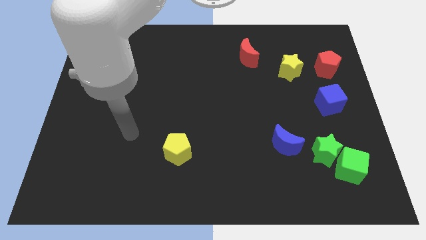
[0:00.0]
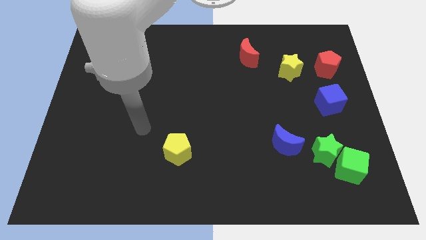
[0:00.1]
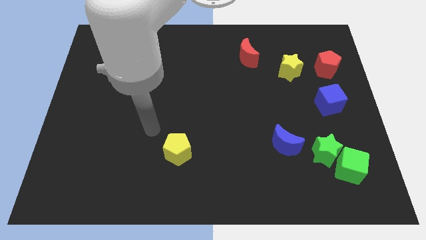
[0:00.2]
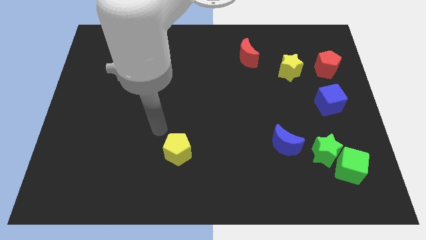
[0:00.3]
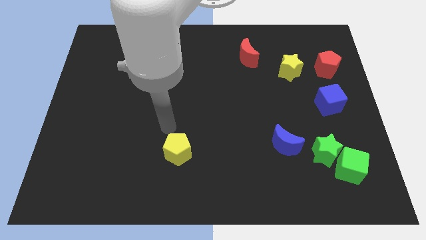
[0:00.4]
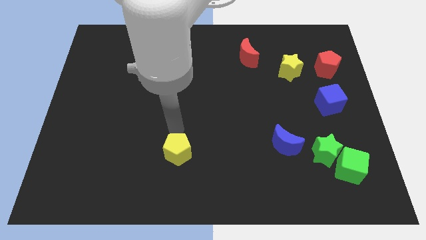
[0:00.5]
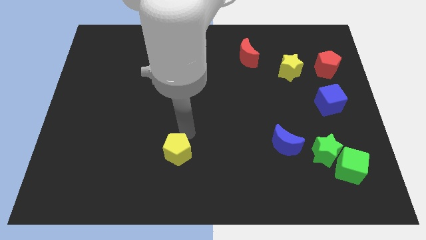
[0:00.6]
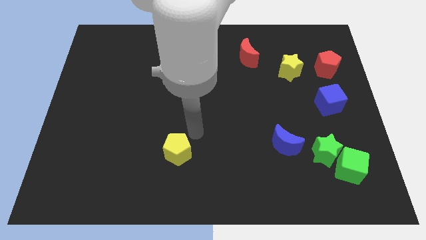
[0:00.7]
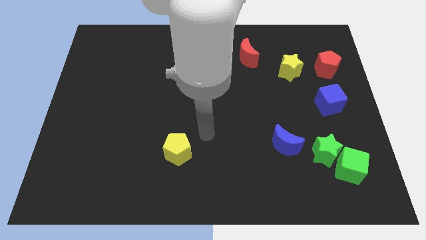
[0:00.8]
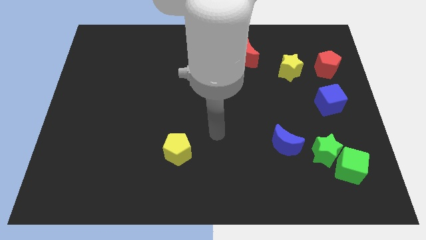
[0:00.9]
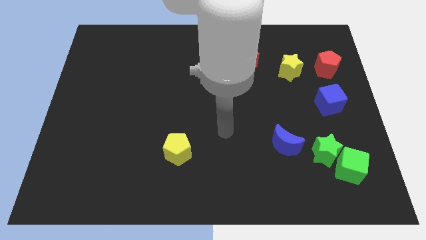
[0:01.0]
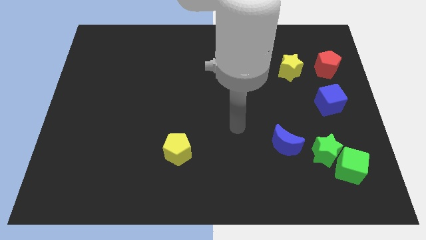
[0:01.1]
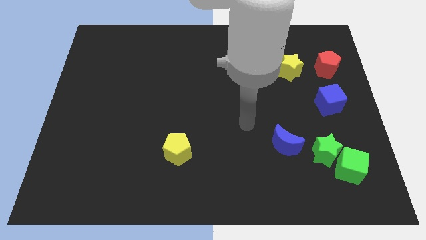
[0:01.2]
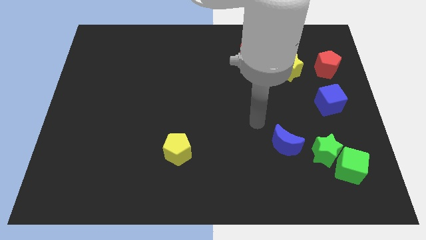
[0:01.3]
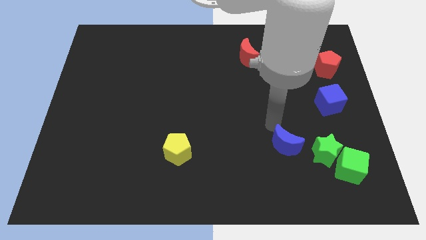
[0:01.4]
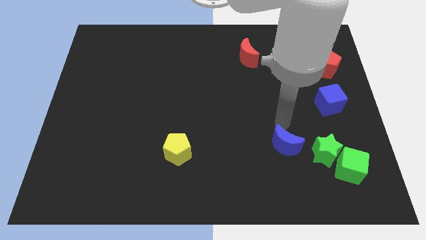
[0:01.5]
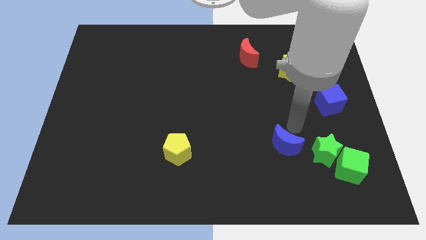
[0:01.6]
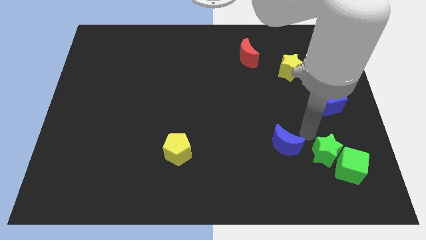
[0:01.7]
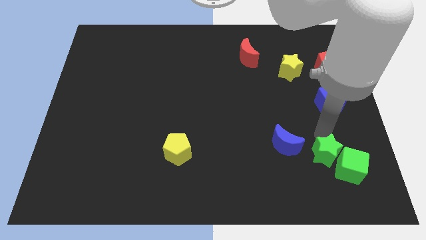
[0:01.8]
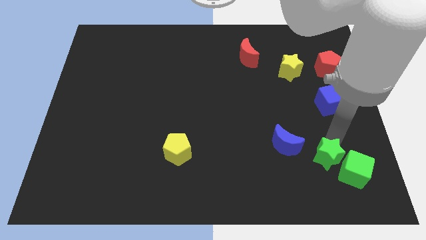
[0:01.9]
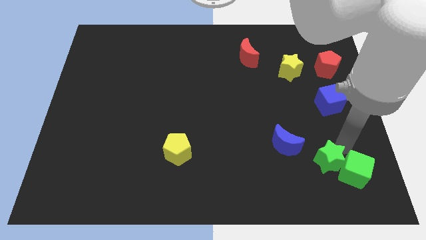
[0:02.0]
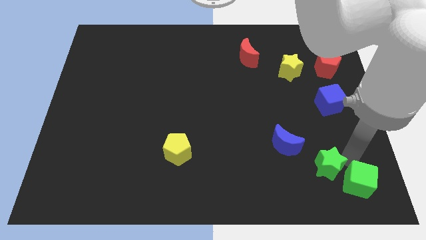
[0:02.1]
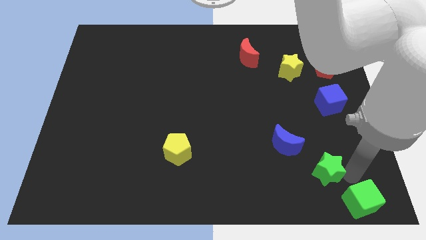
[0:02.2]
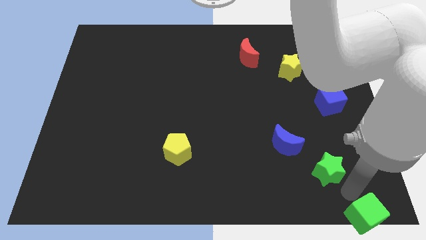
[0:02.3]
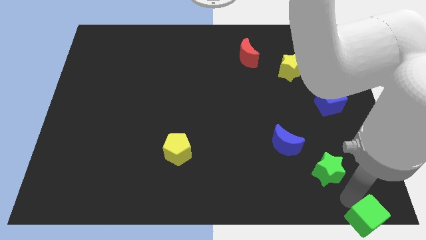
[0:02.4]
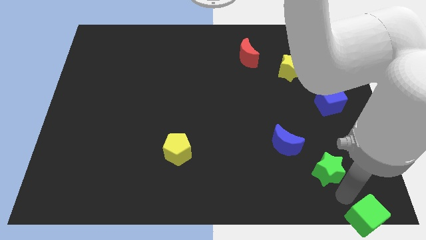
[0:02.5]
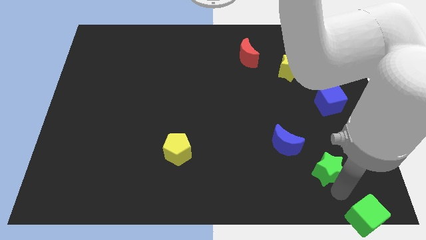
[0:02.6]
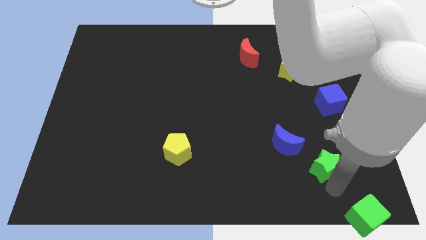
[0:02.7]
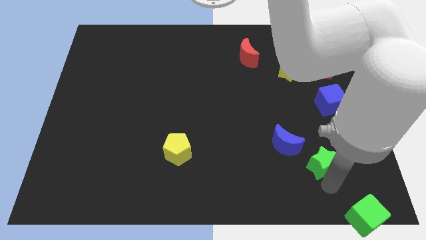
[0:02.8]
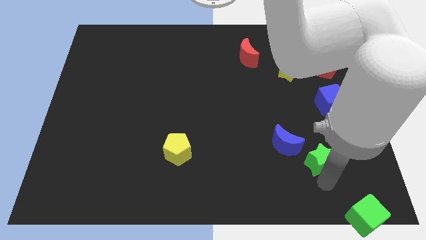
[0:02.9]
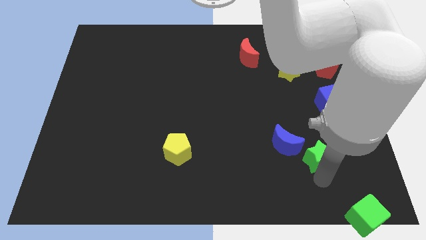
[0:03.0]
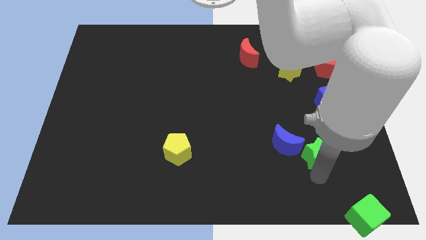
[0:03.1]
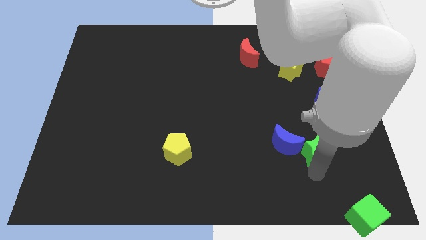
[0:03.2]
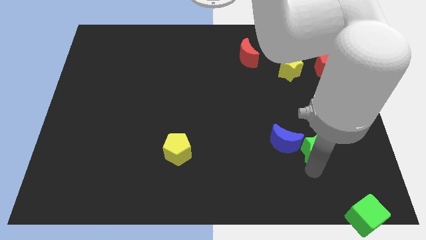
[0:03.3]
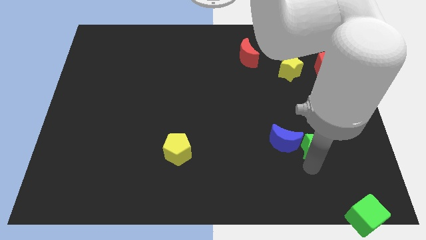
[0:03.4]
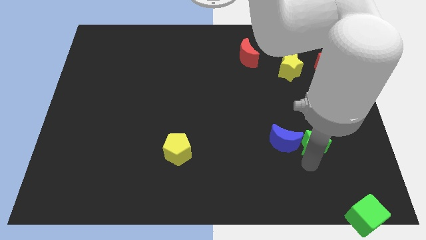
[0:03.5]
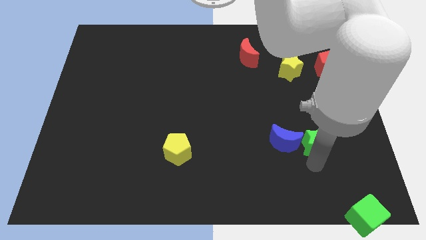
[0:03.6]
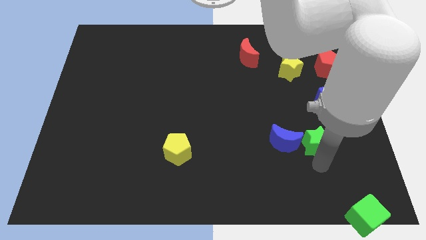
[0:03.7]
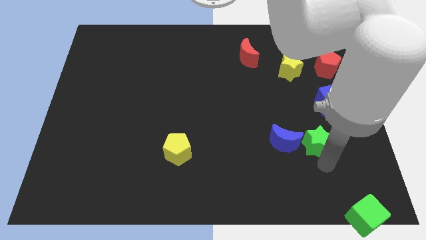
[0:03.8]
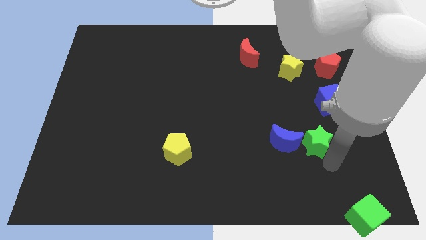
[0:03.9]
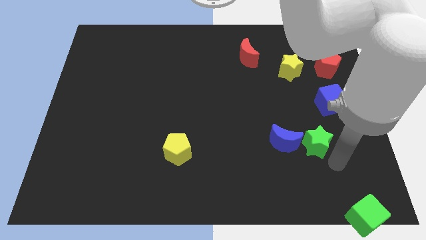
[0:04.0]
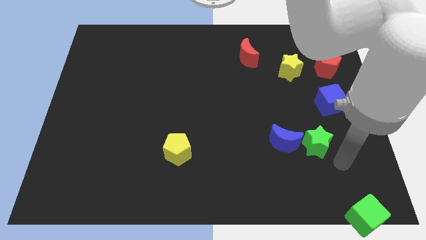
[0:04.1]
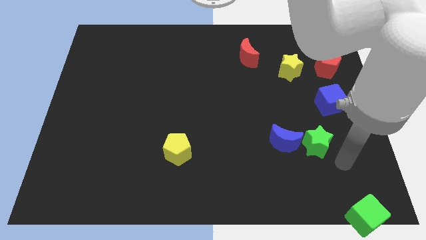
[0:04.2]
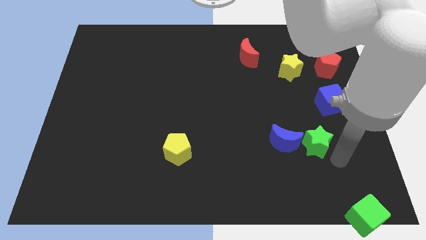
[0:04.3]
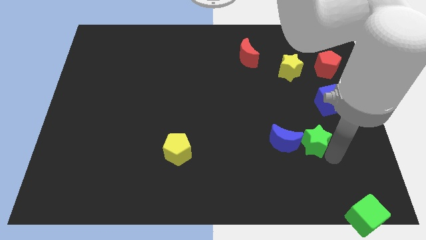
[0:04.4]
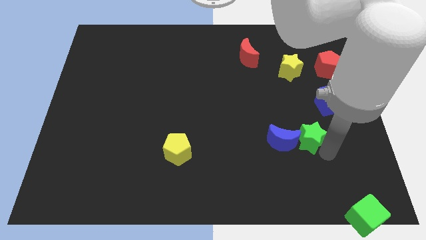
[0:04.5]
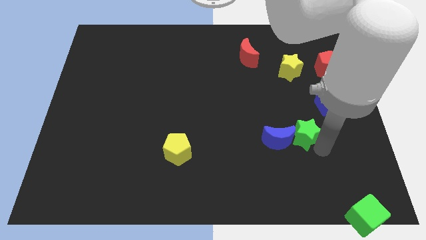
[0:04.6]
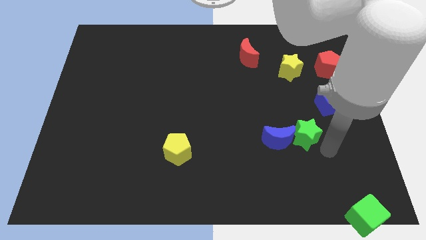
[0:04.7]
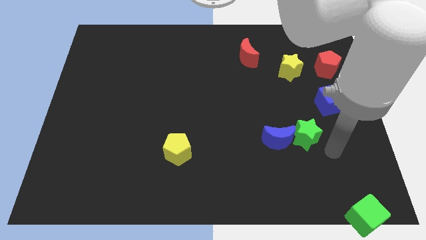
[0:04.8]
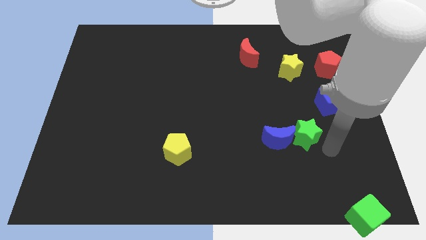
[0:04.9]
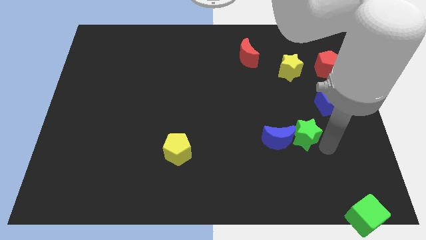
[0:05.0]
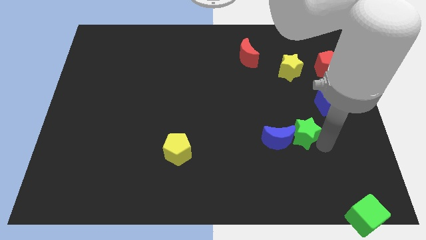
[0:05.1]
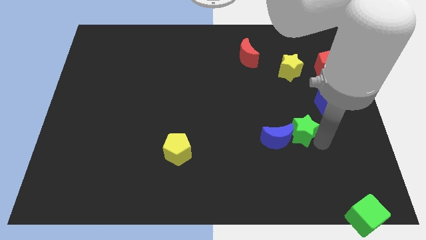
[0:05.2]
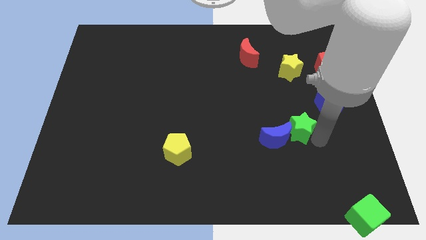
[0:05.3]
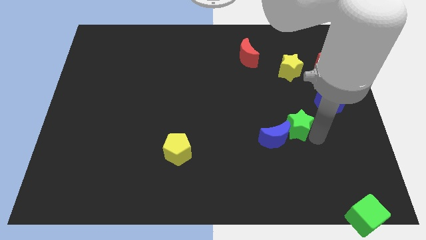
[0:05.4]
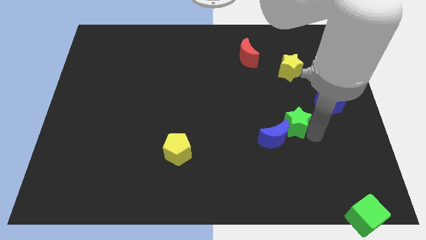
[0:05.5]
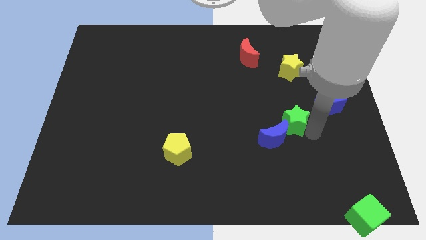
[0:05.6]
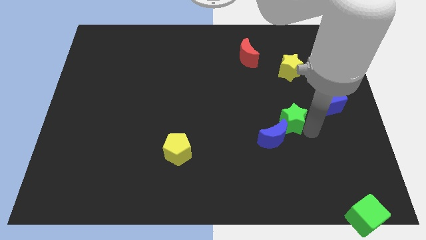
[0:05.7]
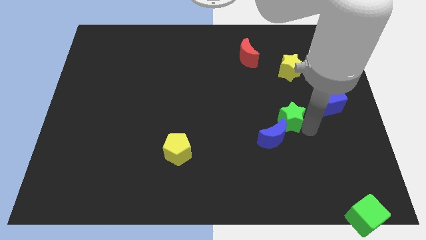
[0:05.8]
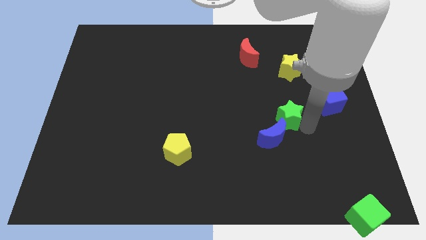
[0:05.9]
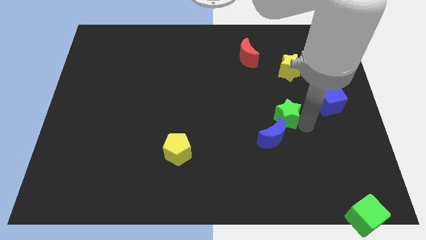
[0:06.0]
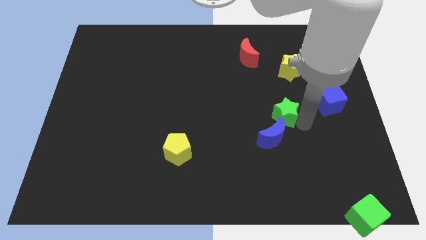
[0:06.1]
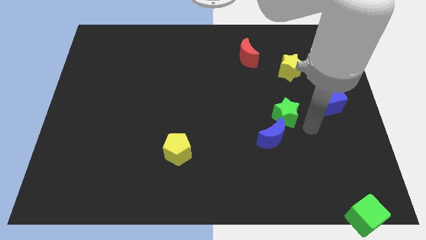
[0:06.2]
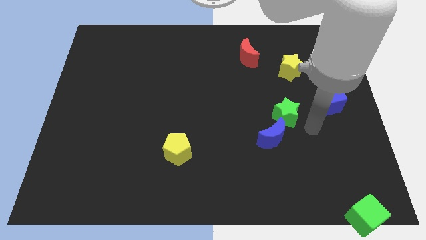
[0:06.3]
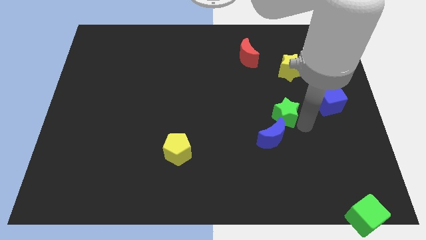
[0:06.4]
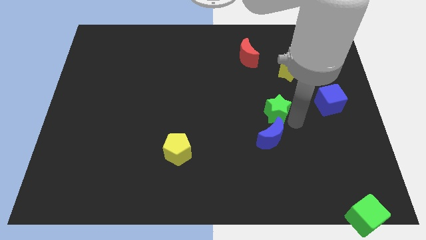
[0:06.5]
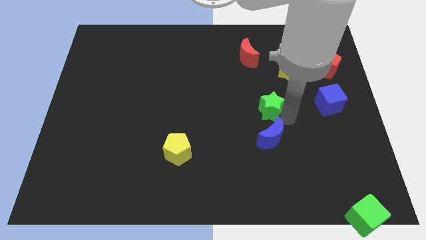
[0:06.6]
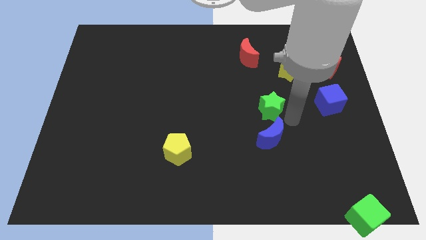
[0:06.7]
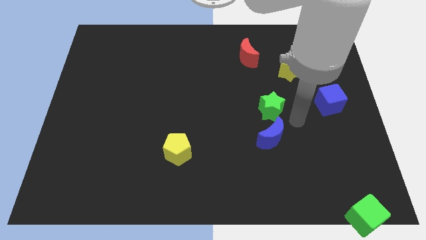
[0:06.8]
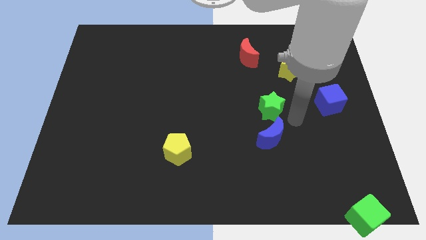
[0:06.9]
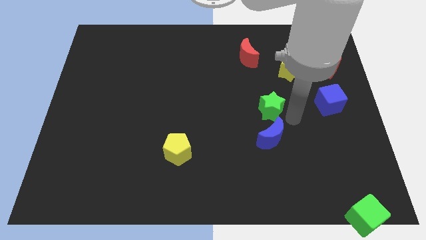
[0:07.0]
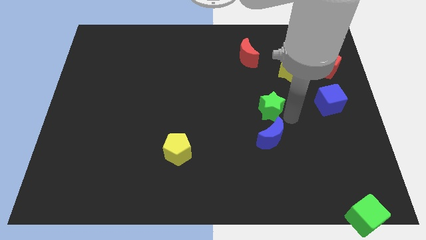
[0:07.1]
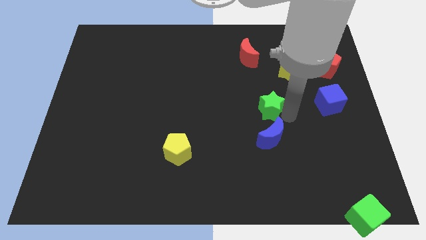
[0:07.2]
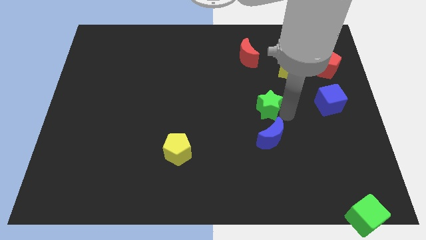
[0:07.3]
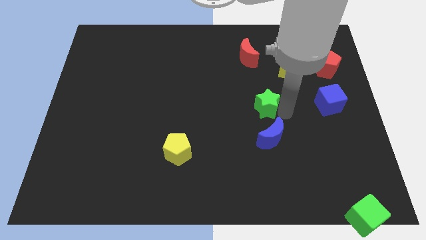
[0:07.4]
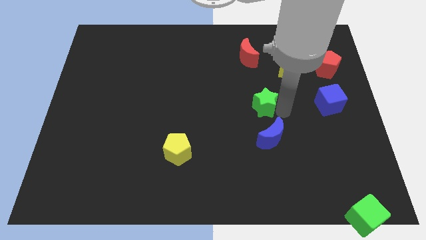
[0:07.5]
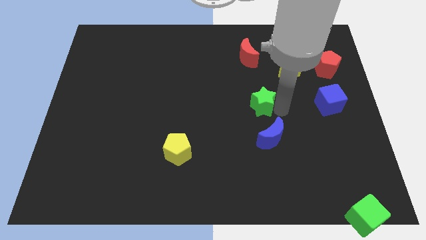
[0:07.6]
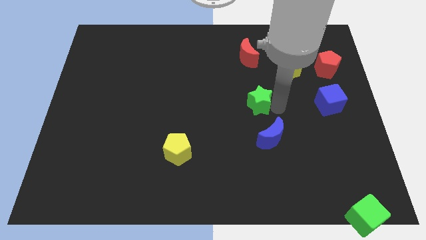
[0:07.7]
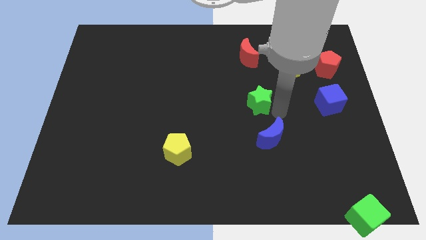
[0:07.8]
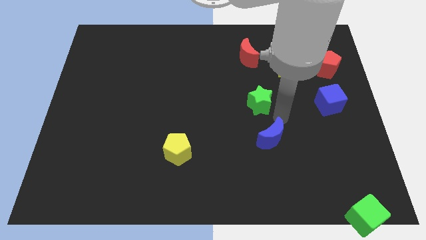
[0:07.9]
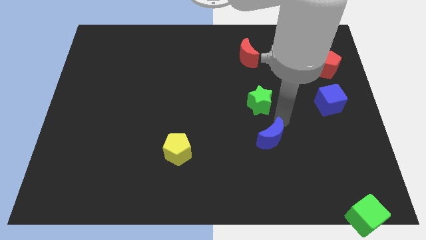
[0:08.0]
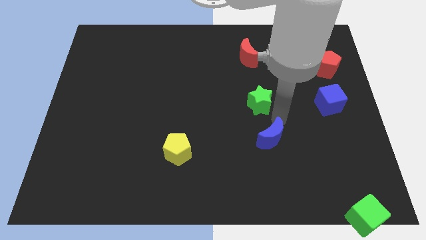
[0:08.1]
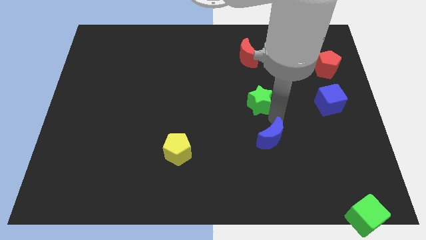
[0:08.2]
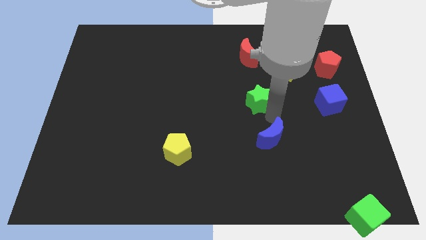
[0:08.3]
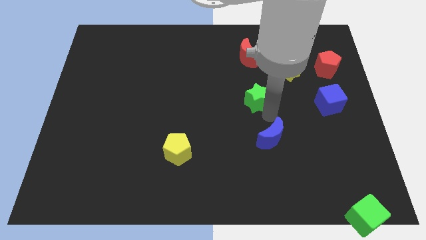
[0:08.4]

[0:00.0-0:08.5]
move the green star diagonally up and to the left
